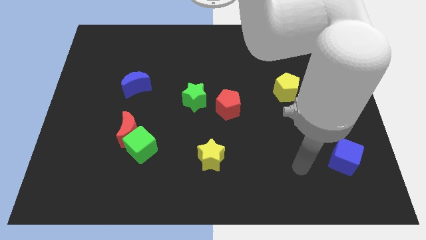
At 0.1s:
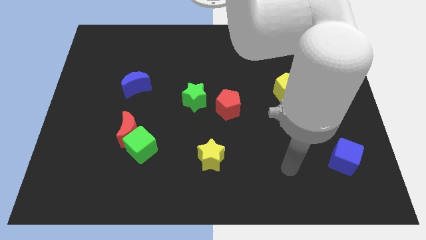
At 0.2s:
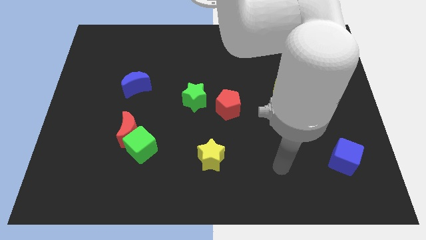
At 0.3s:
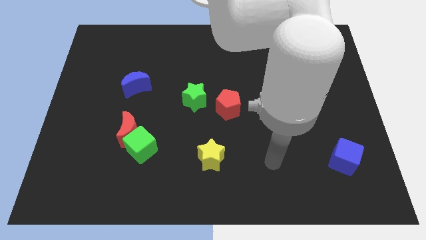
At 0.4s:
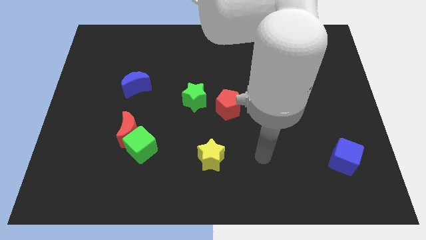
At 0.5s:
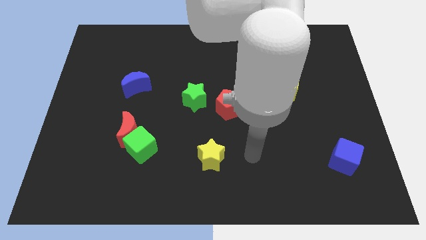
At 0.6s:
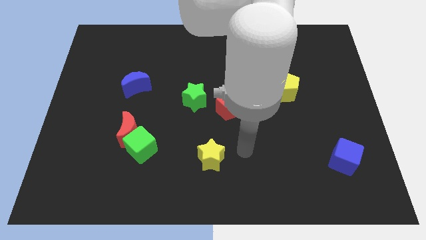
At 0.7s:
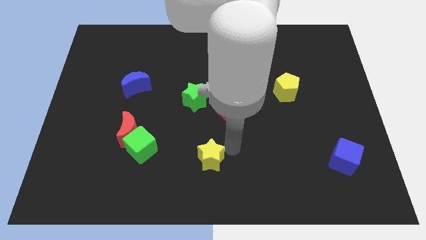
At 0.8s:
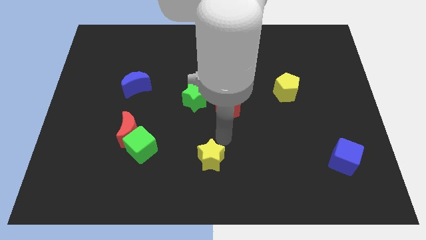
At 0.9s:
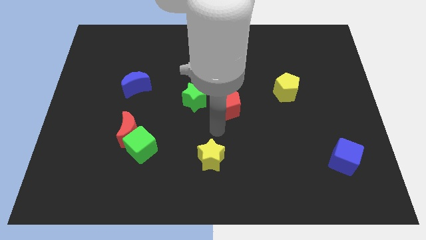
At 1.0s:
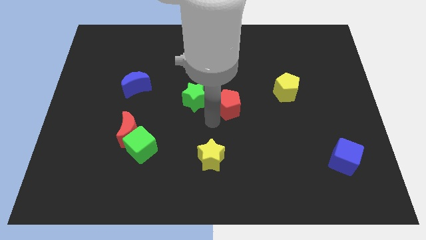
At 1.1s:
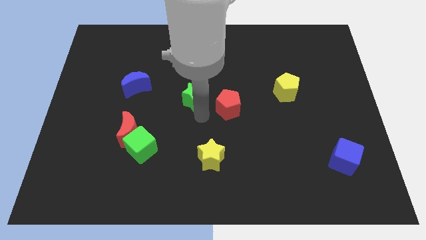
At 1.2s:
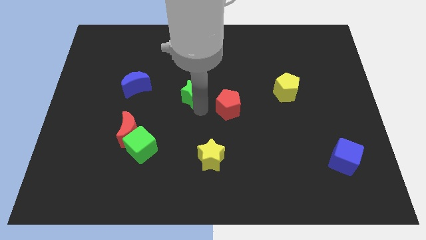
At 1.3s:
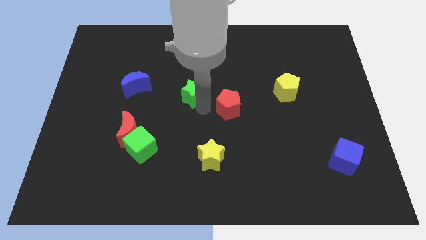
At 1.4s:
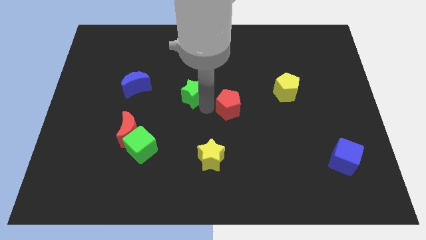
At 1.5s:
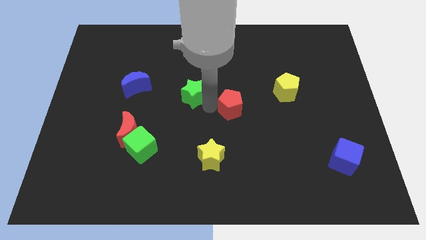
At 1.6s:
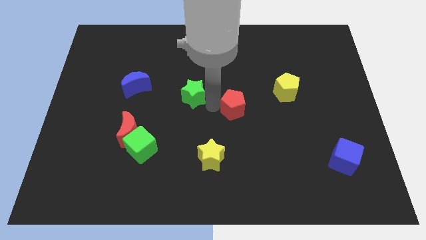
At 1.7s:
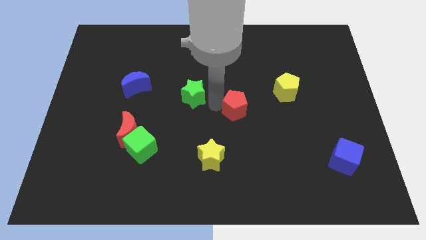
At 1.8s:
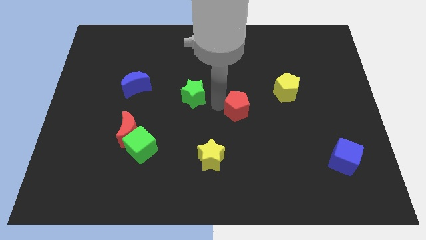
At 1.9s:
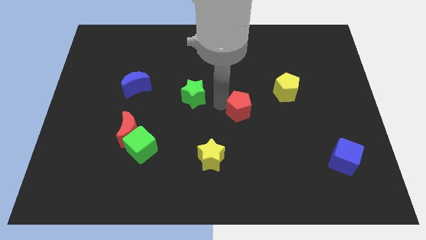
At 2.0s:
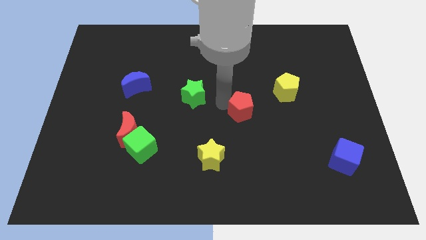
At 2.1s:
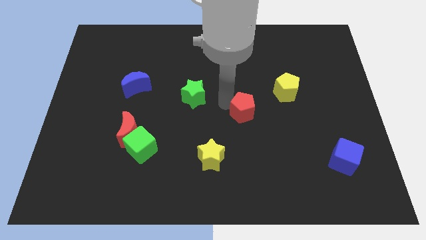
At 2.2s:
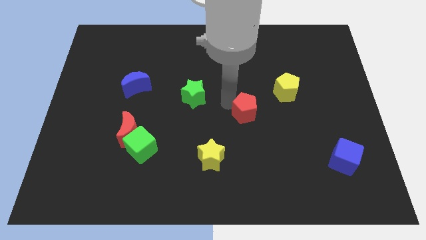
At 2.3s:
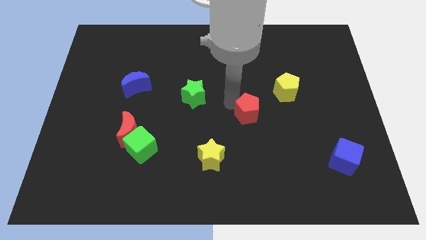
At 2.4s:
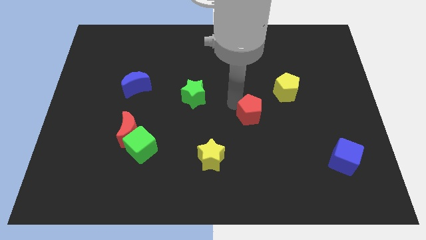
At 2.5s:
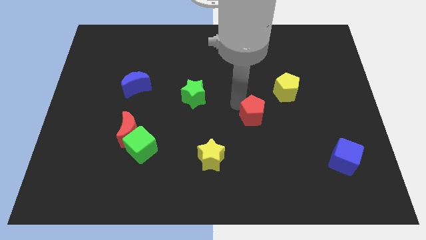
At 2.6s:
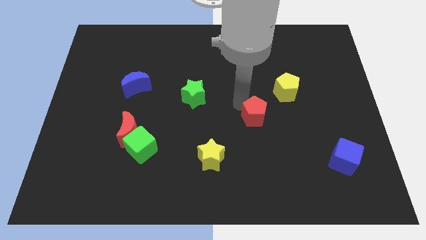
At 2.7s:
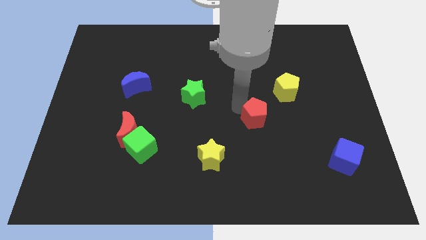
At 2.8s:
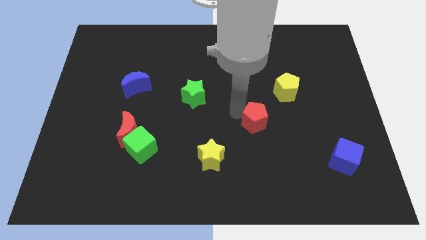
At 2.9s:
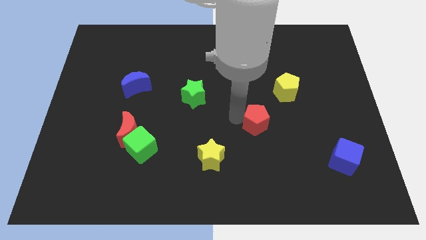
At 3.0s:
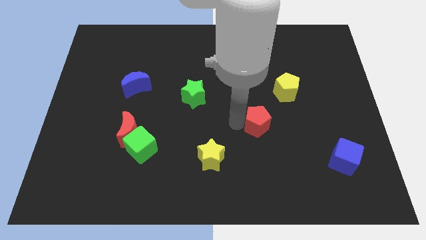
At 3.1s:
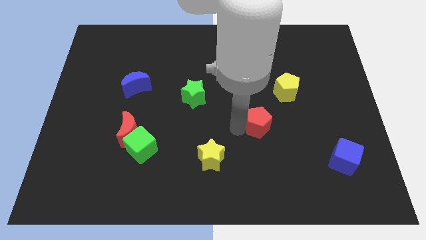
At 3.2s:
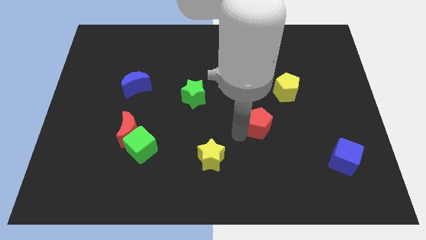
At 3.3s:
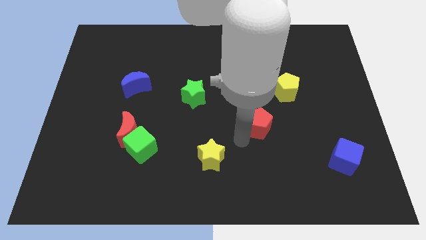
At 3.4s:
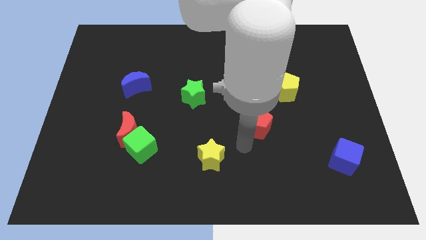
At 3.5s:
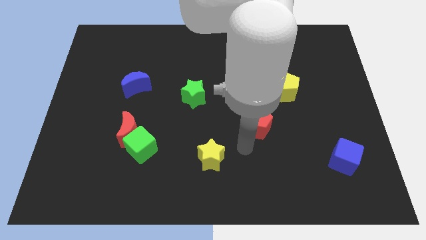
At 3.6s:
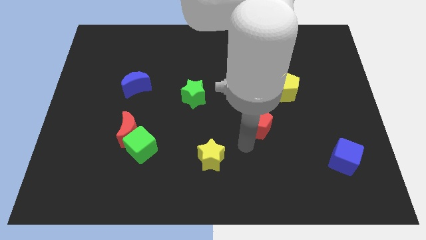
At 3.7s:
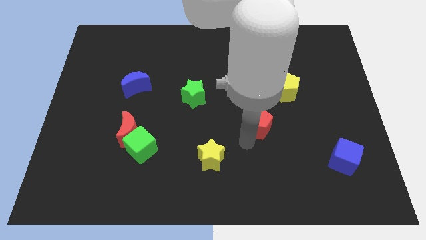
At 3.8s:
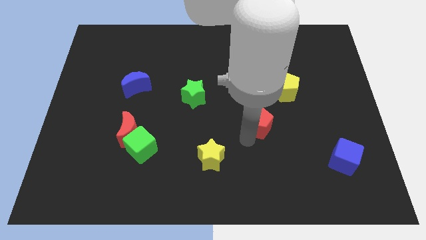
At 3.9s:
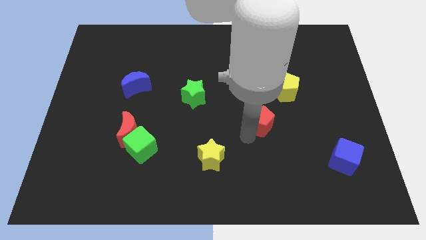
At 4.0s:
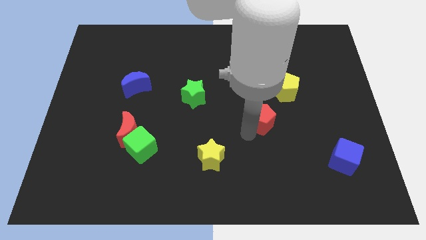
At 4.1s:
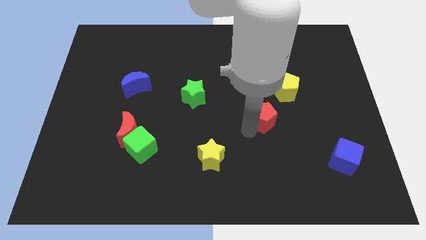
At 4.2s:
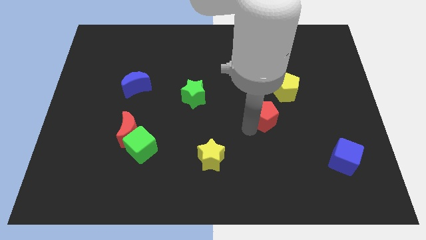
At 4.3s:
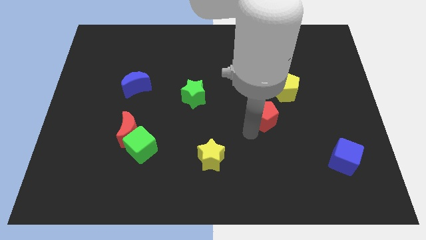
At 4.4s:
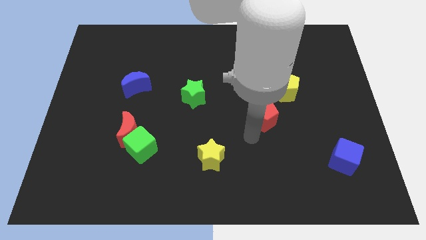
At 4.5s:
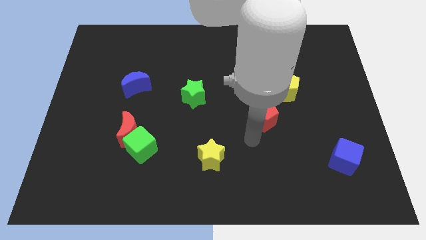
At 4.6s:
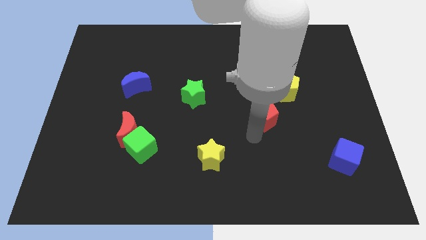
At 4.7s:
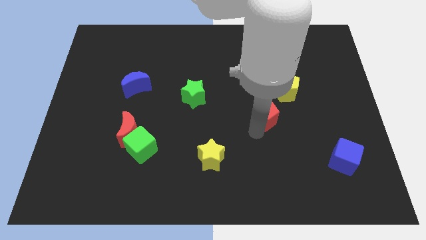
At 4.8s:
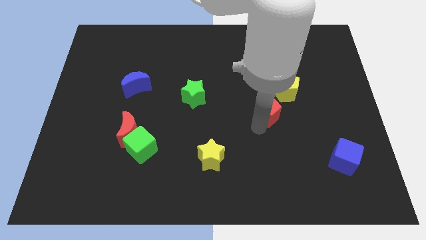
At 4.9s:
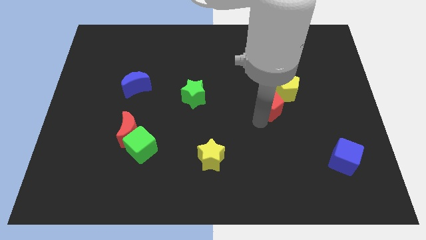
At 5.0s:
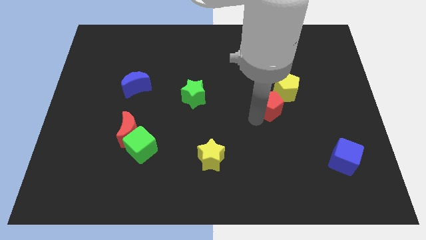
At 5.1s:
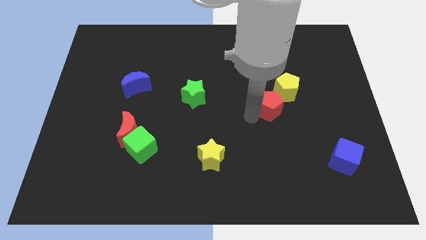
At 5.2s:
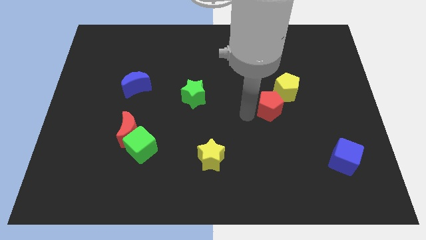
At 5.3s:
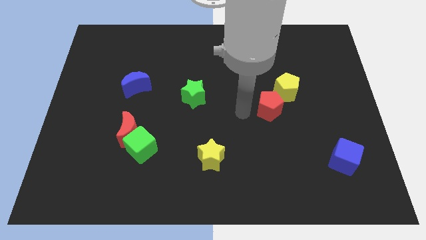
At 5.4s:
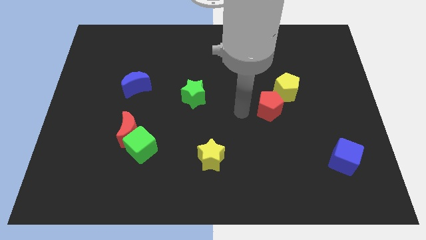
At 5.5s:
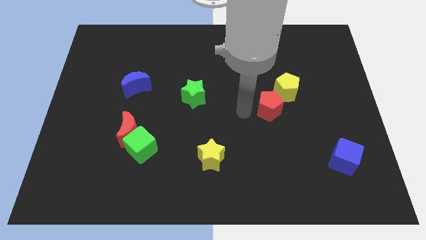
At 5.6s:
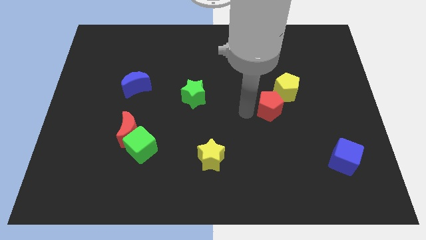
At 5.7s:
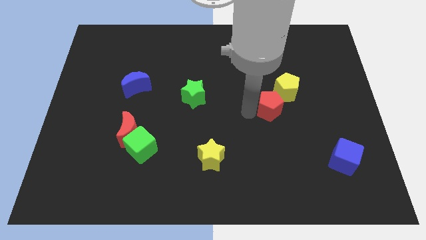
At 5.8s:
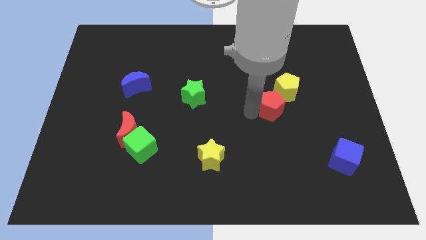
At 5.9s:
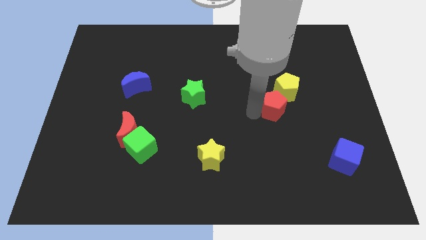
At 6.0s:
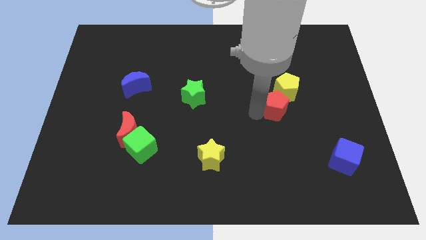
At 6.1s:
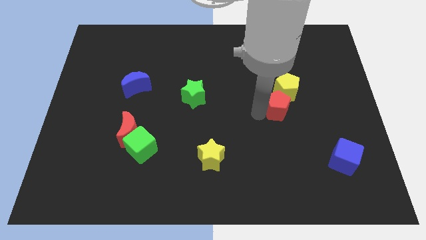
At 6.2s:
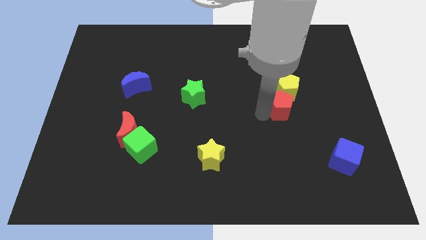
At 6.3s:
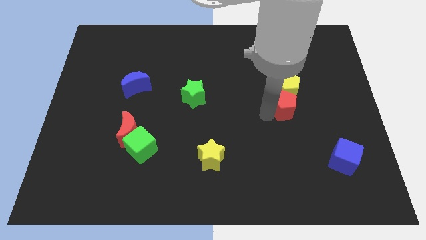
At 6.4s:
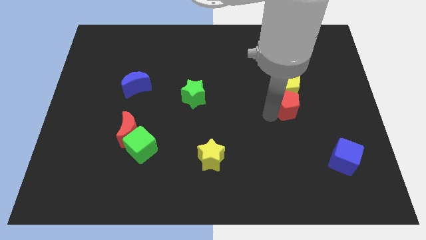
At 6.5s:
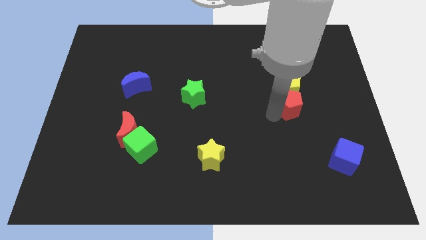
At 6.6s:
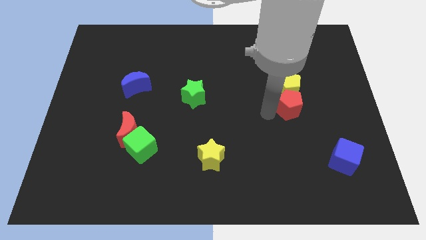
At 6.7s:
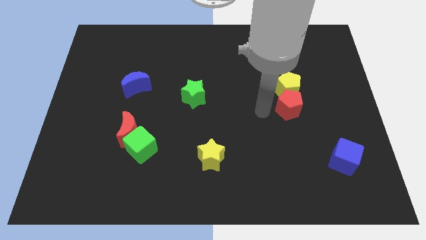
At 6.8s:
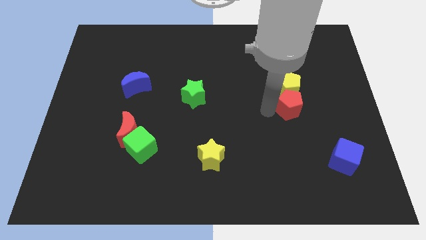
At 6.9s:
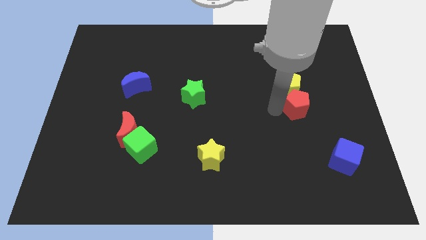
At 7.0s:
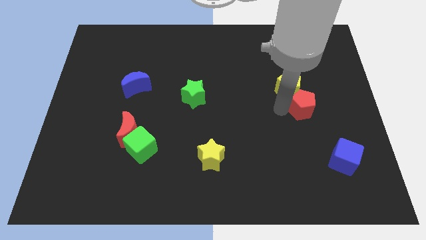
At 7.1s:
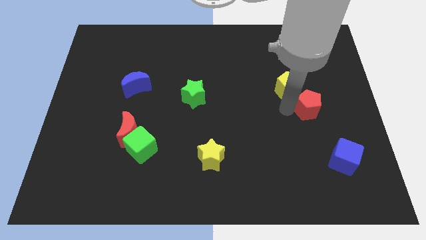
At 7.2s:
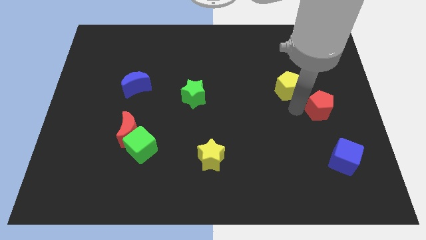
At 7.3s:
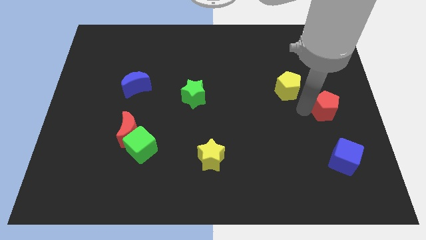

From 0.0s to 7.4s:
push the red pentagon to the right side

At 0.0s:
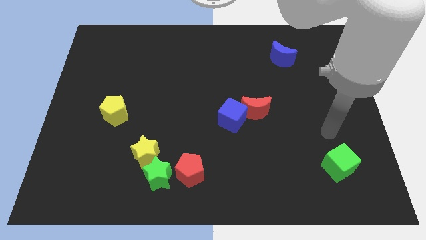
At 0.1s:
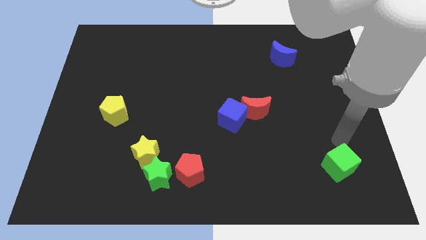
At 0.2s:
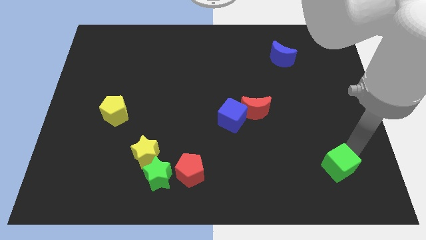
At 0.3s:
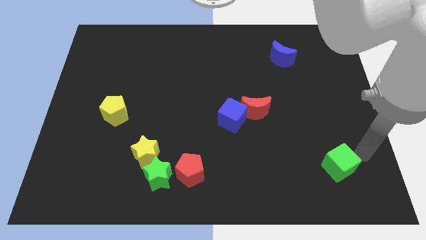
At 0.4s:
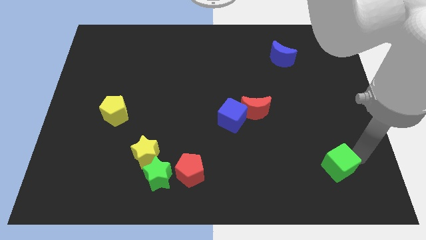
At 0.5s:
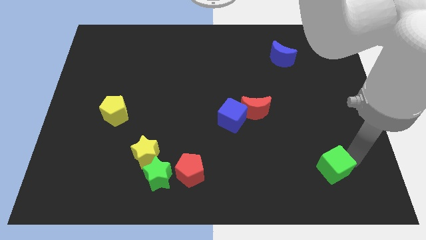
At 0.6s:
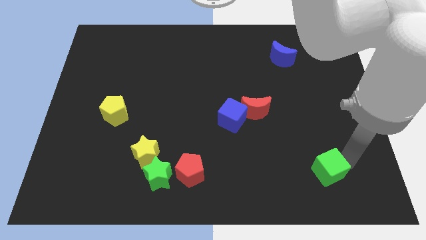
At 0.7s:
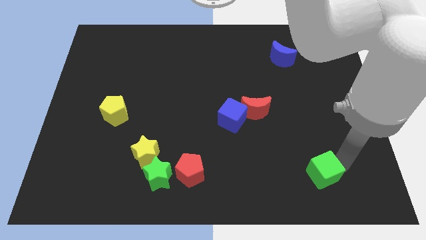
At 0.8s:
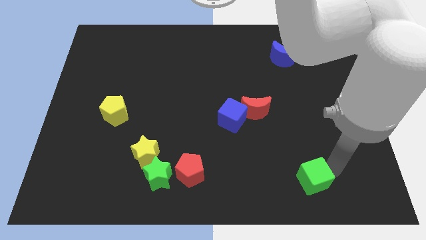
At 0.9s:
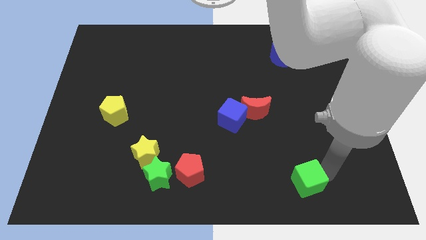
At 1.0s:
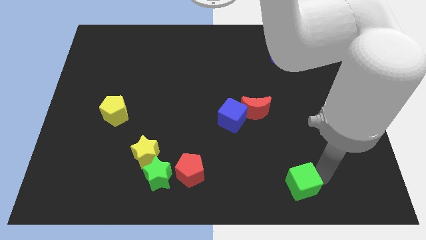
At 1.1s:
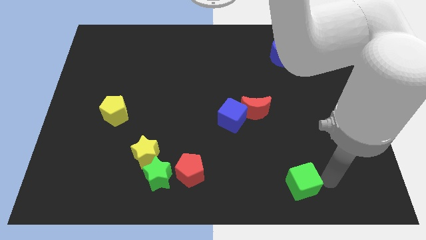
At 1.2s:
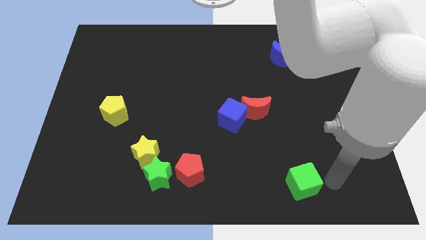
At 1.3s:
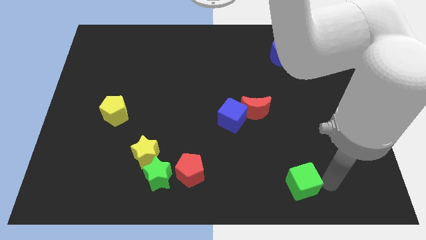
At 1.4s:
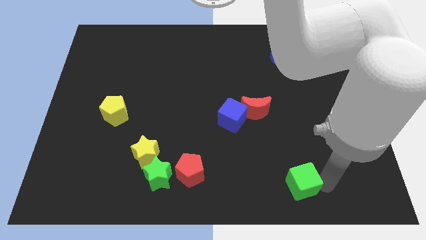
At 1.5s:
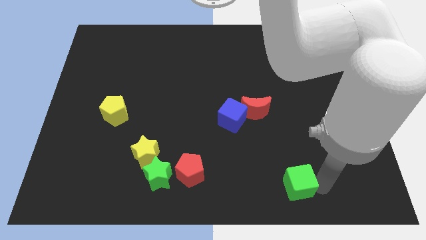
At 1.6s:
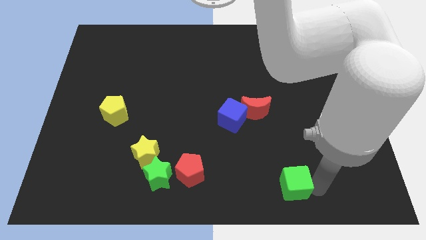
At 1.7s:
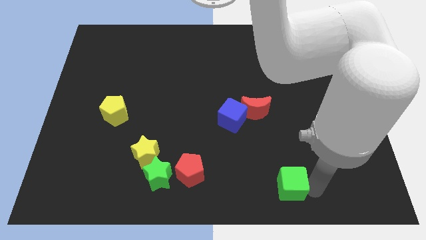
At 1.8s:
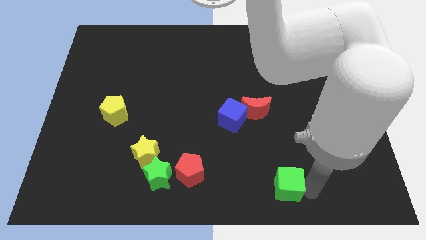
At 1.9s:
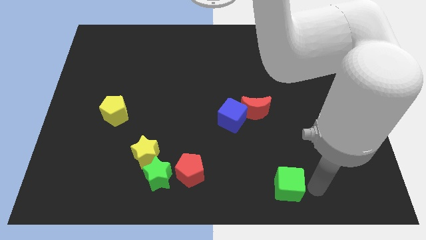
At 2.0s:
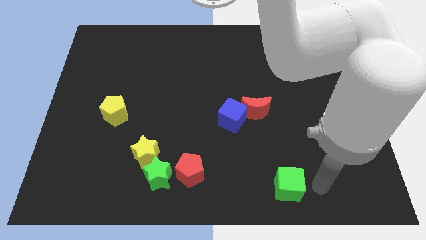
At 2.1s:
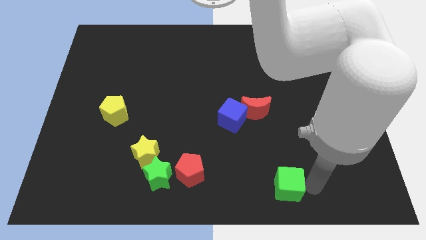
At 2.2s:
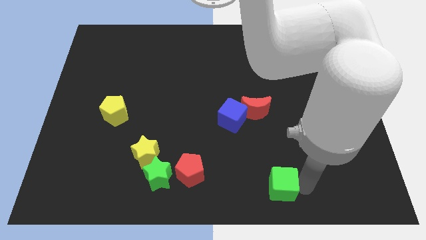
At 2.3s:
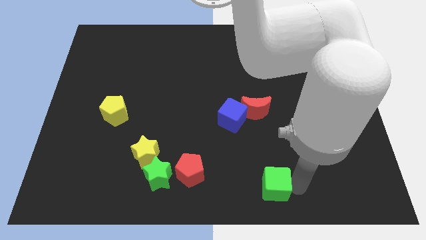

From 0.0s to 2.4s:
put the green cube to the bottom
